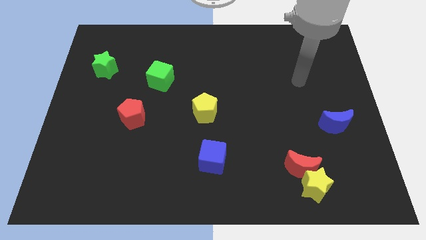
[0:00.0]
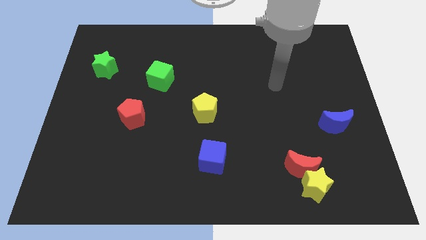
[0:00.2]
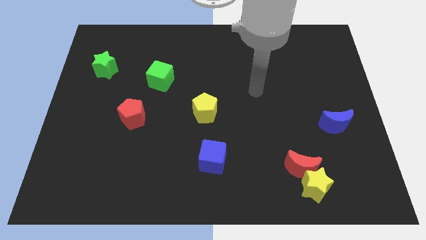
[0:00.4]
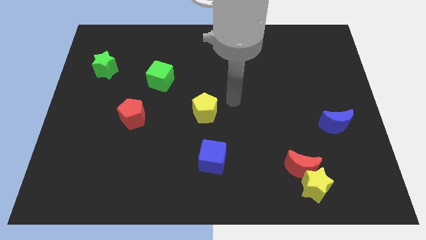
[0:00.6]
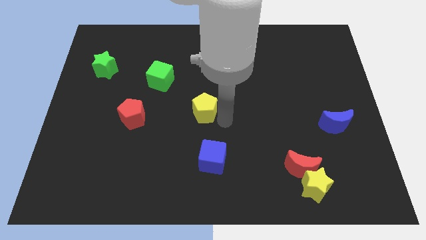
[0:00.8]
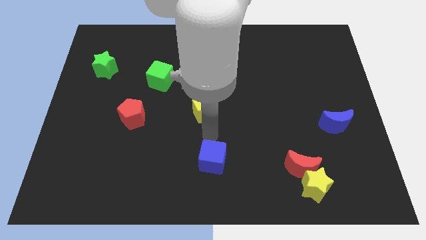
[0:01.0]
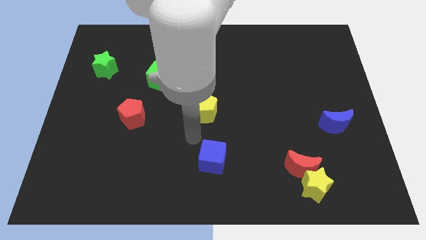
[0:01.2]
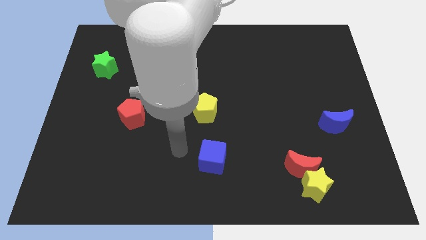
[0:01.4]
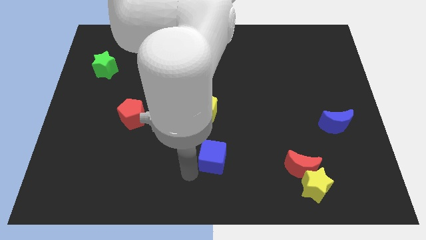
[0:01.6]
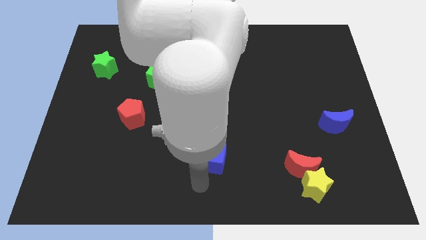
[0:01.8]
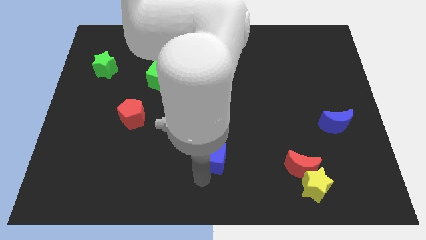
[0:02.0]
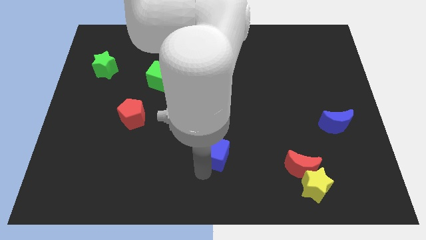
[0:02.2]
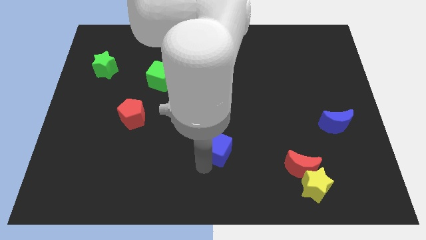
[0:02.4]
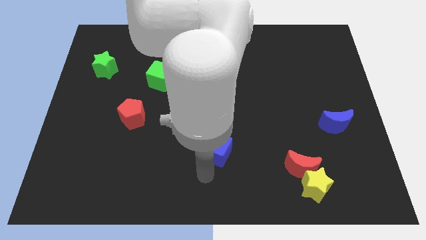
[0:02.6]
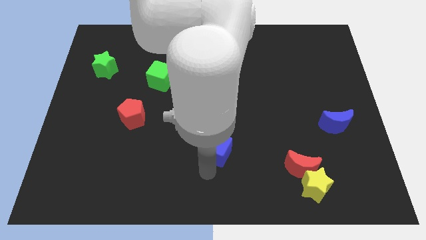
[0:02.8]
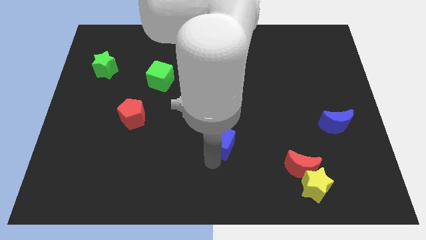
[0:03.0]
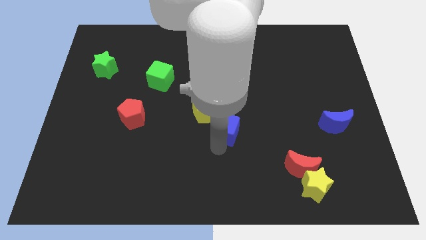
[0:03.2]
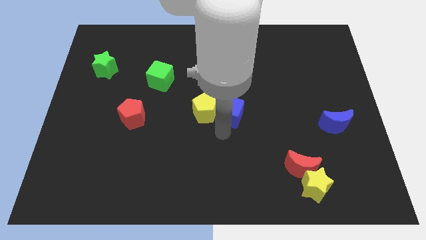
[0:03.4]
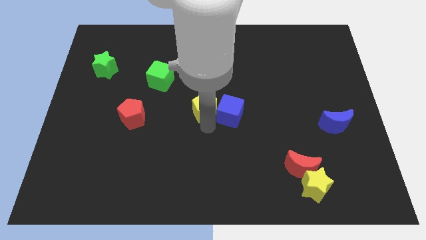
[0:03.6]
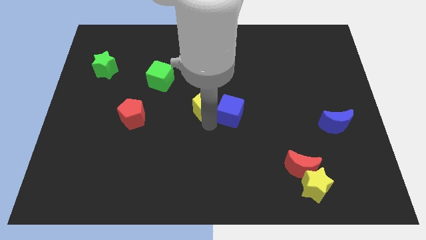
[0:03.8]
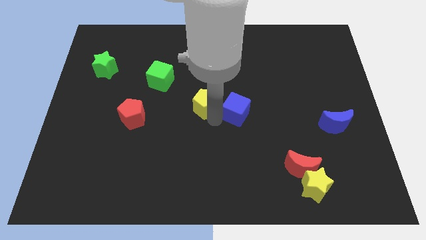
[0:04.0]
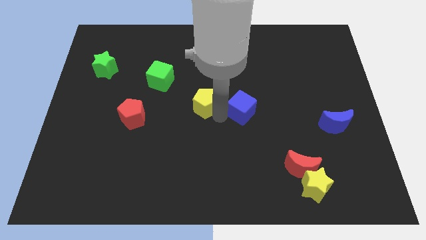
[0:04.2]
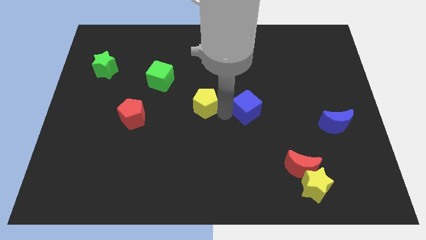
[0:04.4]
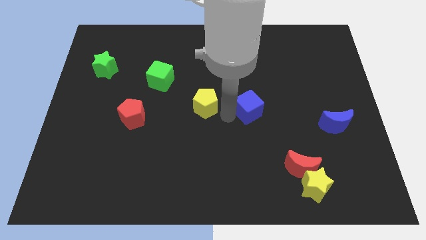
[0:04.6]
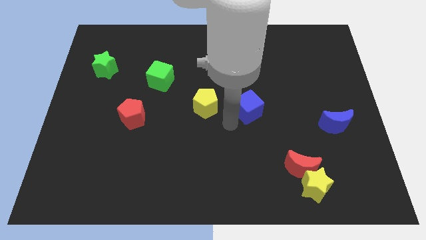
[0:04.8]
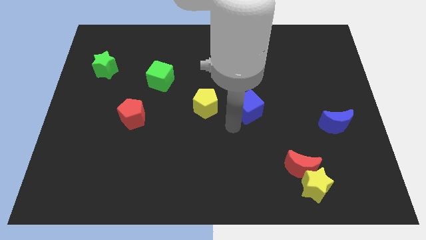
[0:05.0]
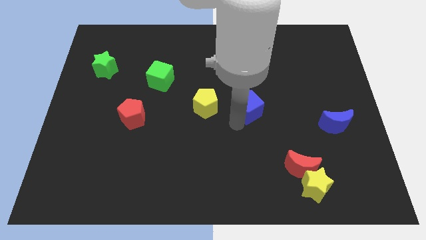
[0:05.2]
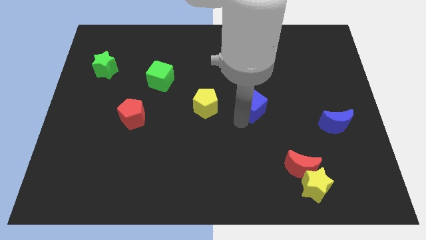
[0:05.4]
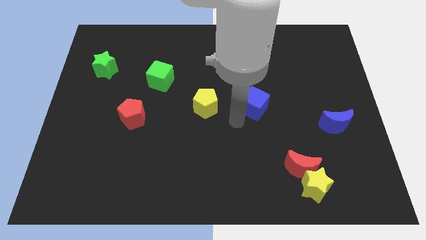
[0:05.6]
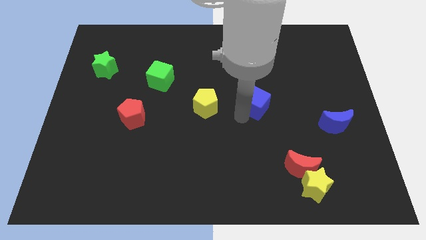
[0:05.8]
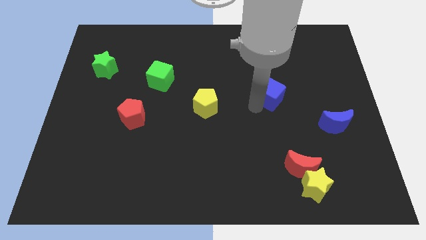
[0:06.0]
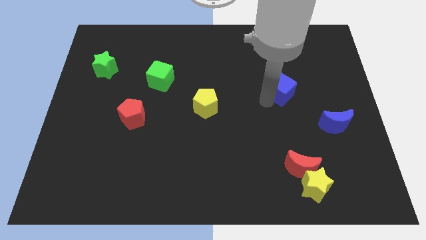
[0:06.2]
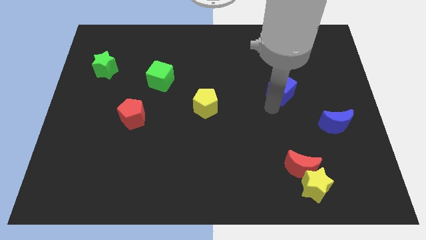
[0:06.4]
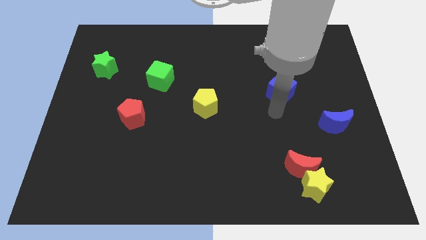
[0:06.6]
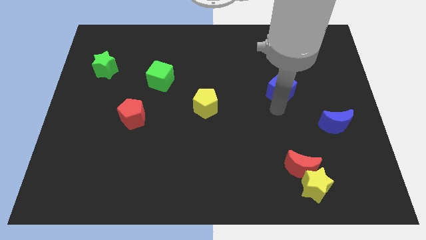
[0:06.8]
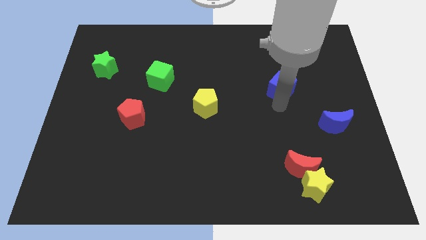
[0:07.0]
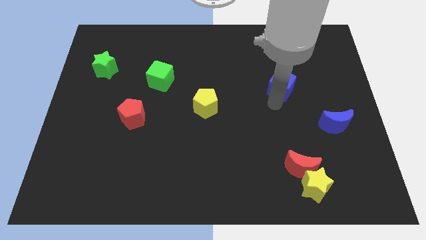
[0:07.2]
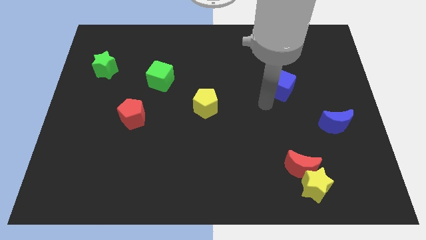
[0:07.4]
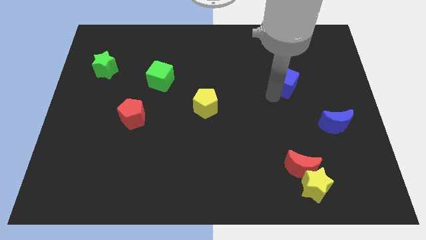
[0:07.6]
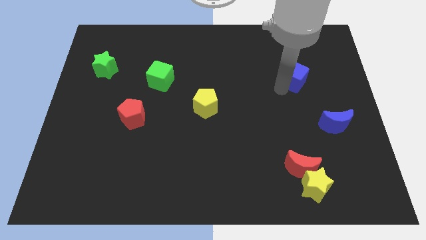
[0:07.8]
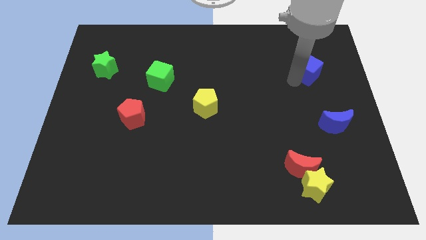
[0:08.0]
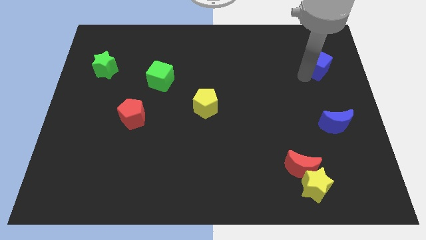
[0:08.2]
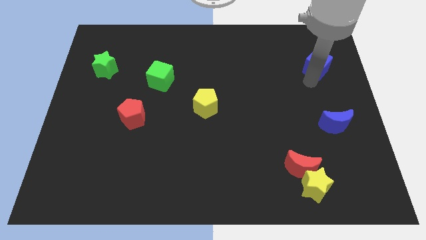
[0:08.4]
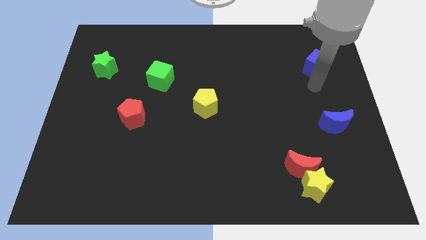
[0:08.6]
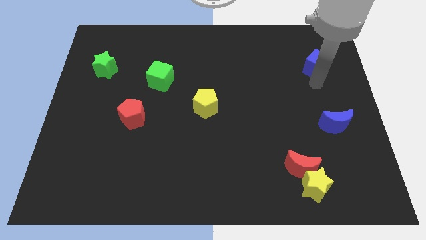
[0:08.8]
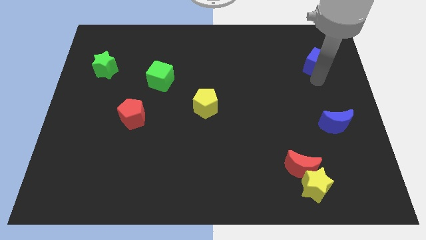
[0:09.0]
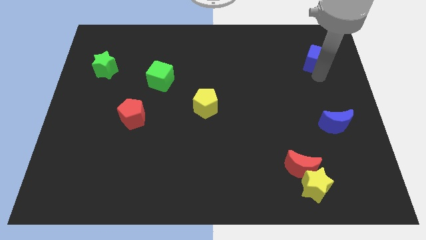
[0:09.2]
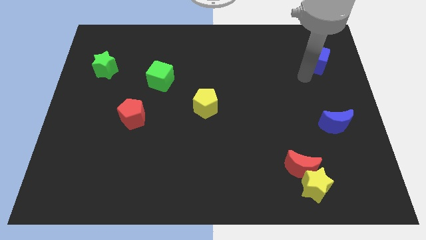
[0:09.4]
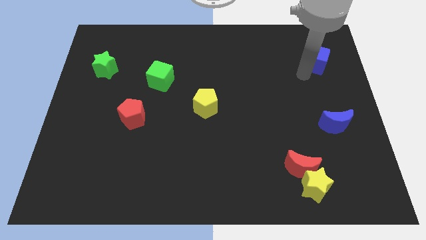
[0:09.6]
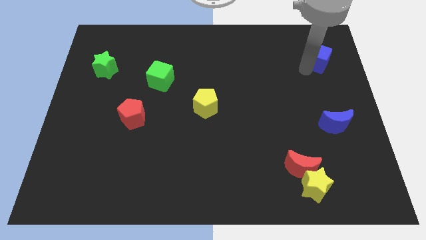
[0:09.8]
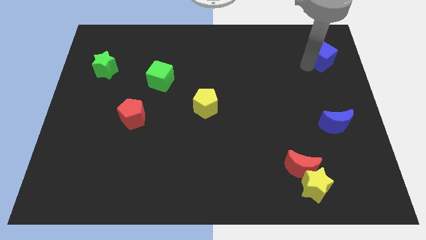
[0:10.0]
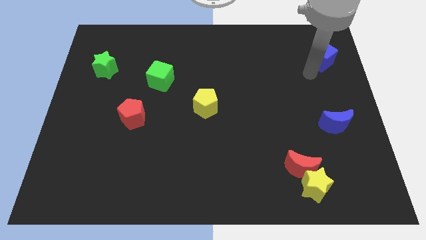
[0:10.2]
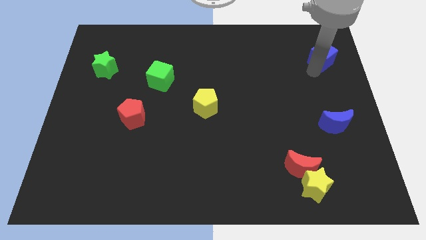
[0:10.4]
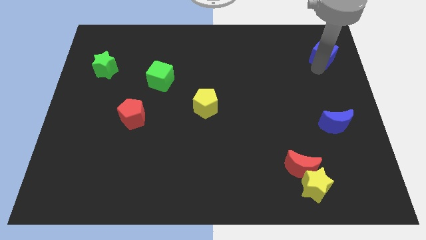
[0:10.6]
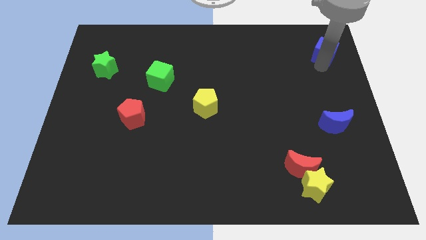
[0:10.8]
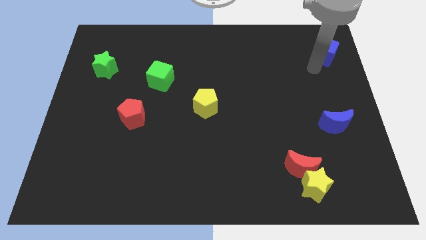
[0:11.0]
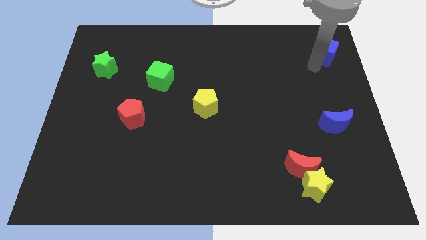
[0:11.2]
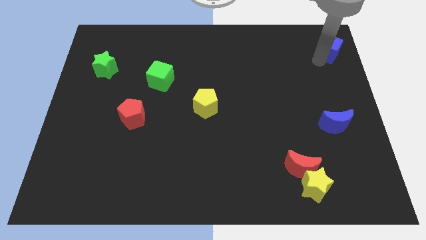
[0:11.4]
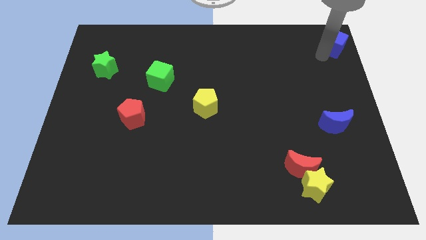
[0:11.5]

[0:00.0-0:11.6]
push the blue cube to the top right
